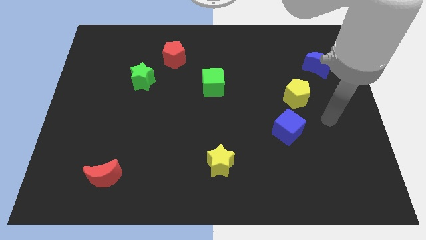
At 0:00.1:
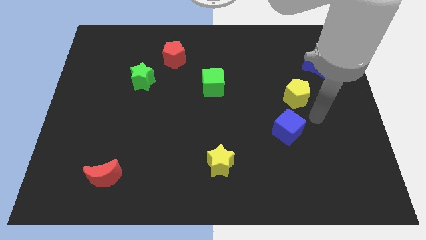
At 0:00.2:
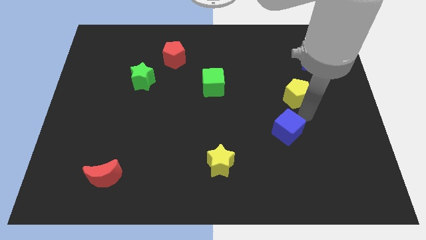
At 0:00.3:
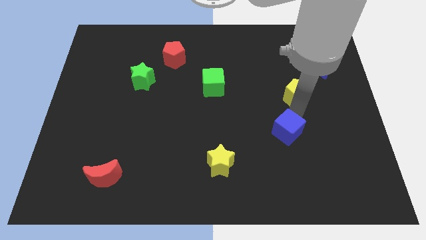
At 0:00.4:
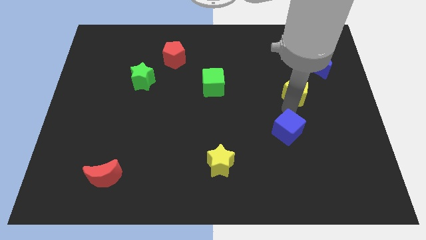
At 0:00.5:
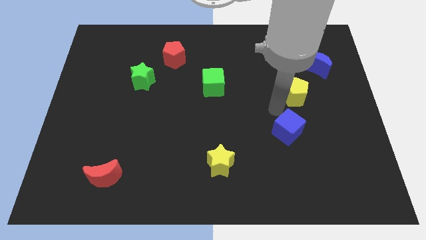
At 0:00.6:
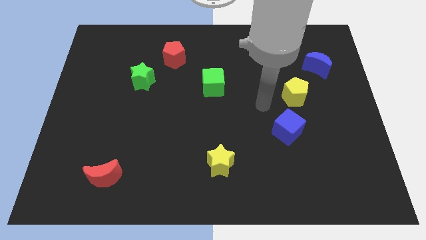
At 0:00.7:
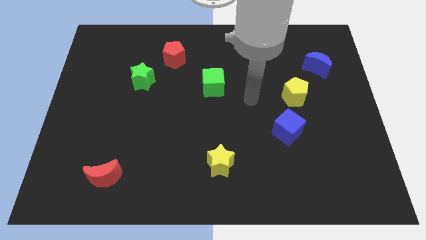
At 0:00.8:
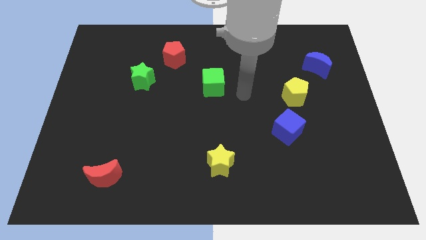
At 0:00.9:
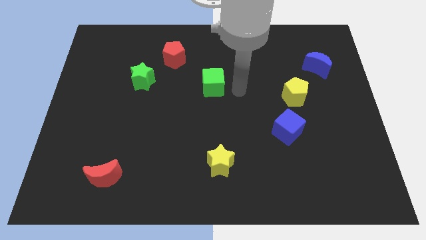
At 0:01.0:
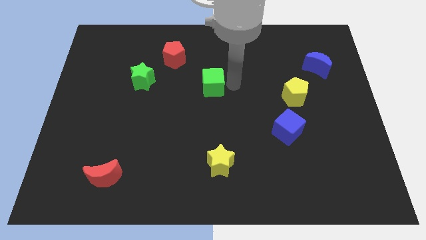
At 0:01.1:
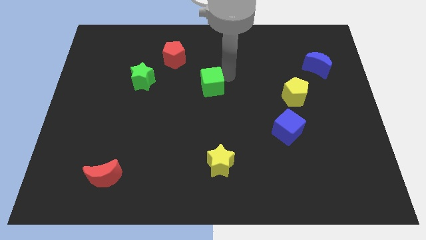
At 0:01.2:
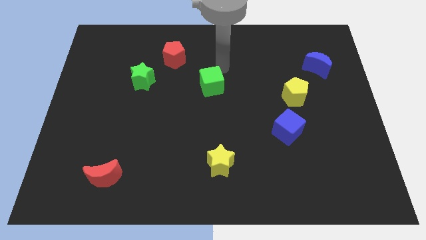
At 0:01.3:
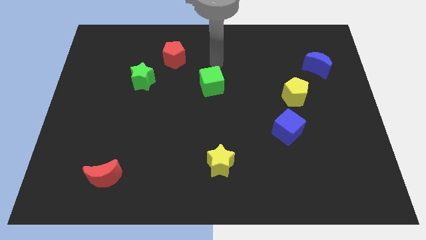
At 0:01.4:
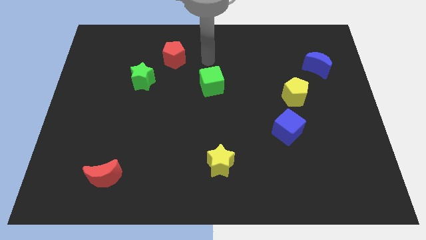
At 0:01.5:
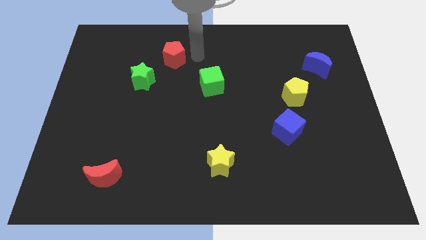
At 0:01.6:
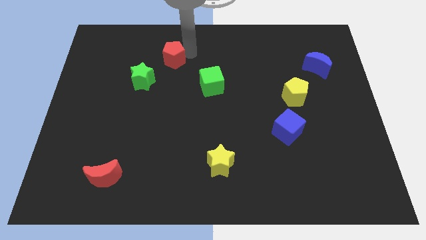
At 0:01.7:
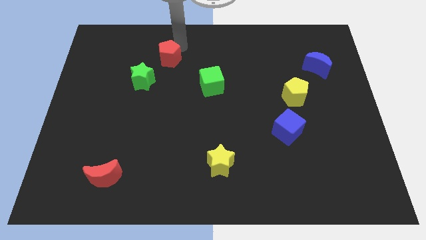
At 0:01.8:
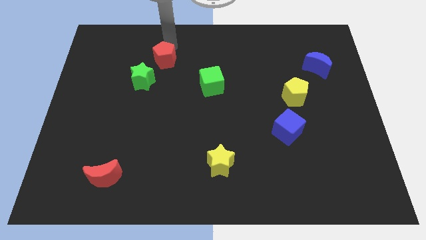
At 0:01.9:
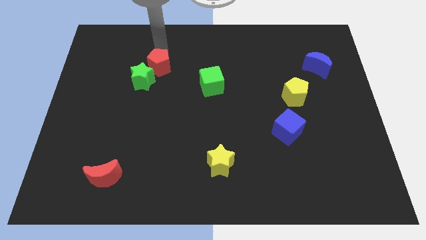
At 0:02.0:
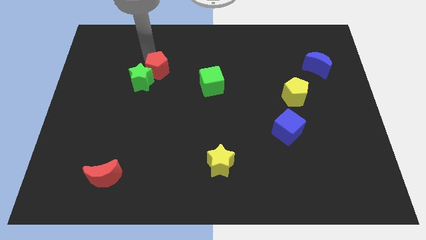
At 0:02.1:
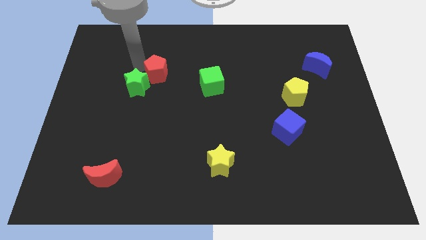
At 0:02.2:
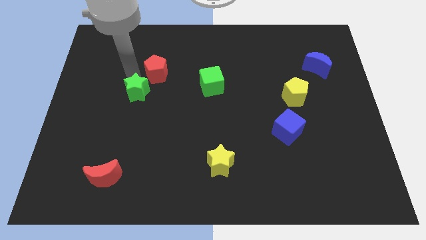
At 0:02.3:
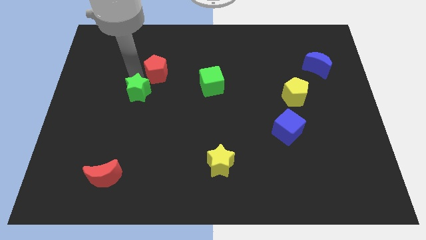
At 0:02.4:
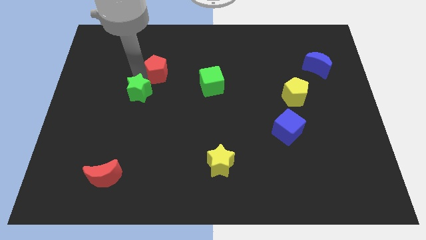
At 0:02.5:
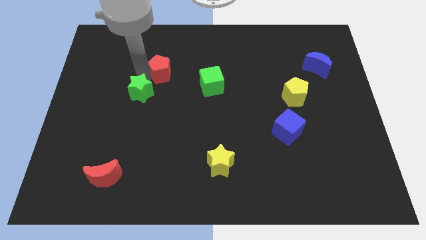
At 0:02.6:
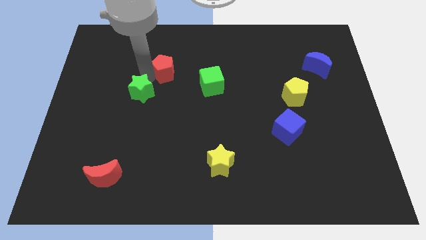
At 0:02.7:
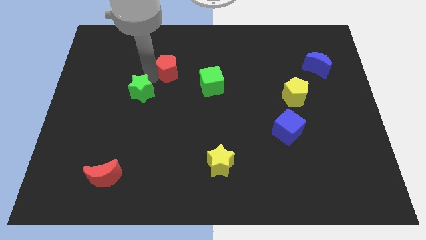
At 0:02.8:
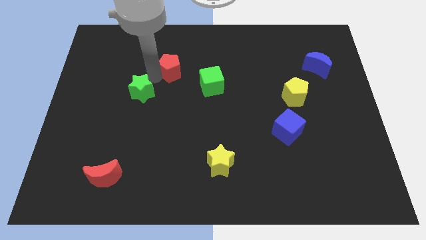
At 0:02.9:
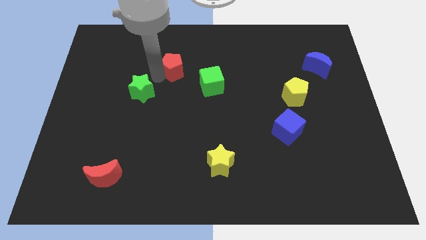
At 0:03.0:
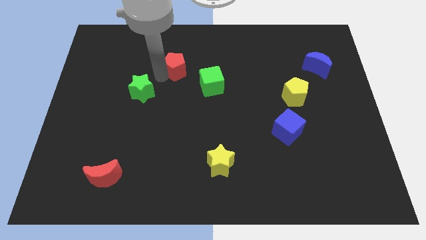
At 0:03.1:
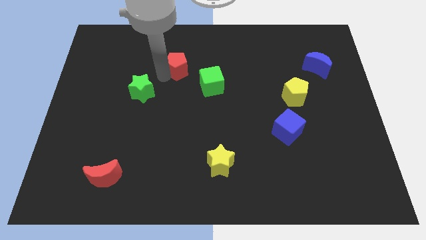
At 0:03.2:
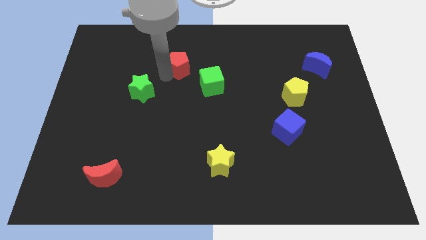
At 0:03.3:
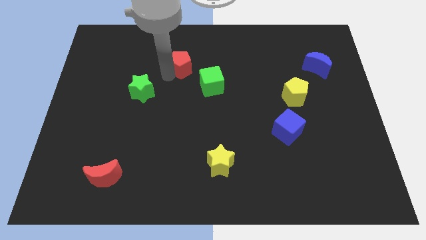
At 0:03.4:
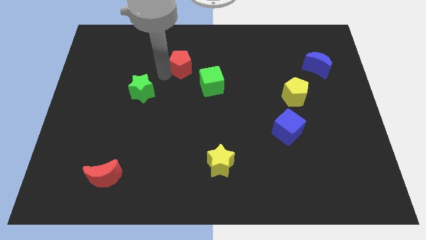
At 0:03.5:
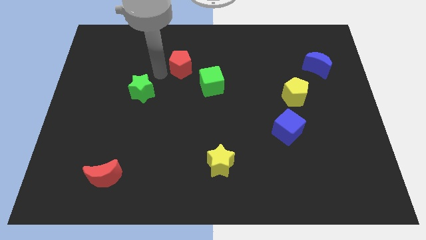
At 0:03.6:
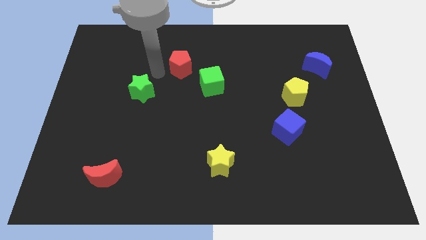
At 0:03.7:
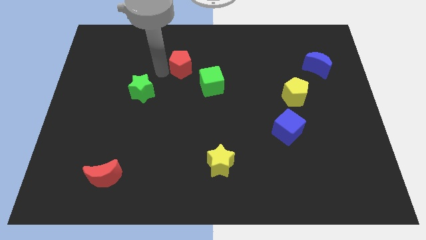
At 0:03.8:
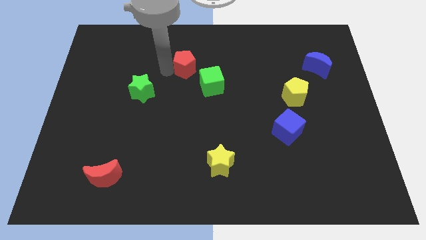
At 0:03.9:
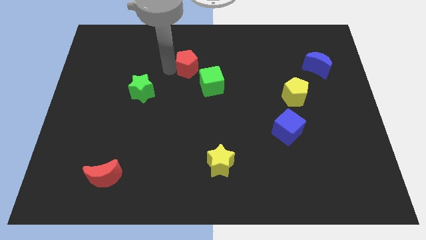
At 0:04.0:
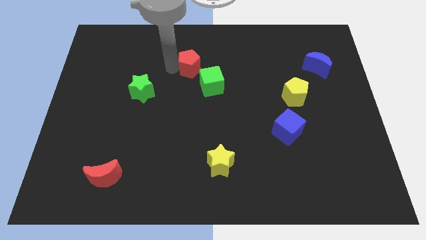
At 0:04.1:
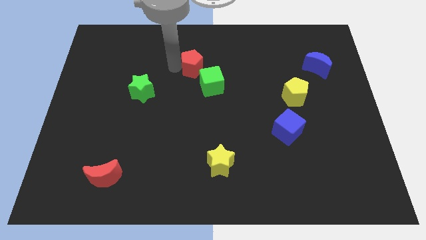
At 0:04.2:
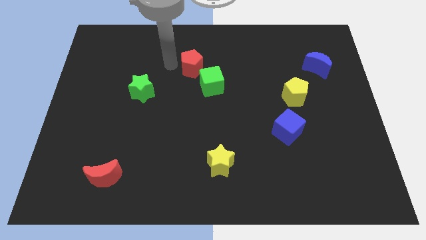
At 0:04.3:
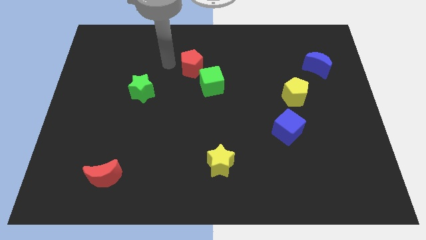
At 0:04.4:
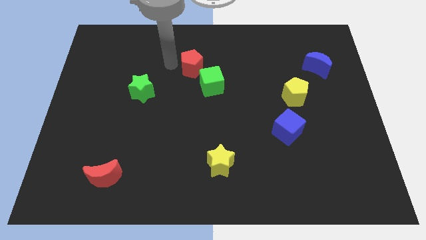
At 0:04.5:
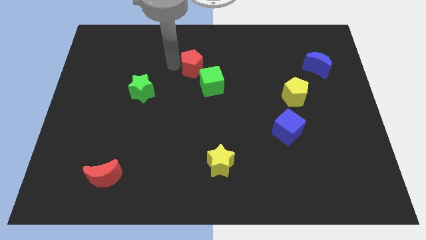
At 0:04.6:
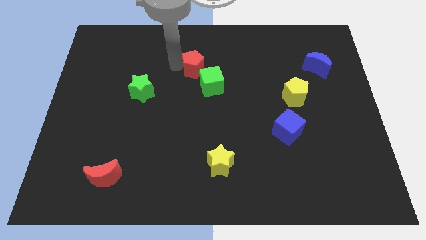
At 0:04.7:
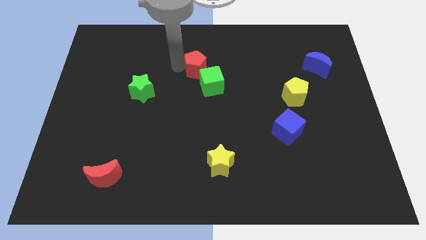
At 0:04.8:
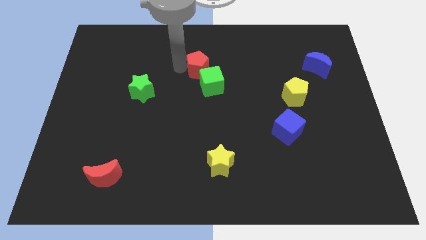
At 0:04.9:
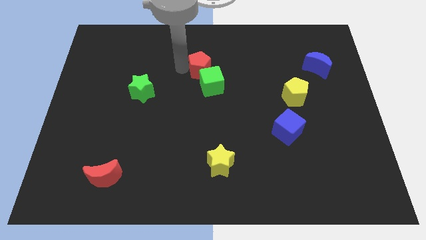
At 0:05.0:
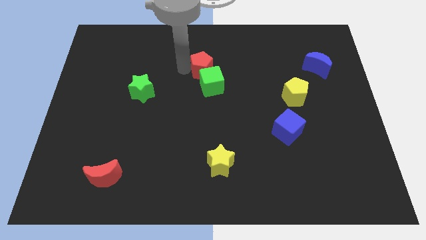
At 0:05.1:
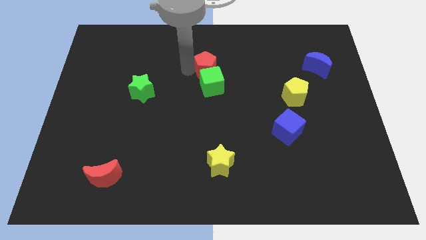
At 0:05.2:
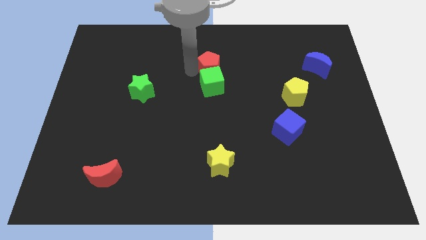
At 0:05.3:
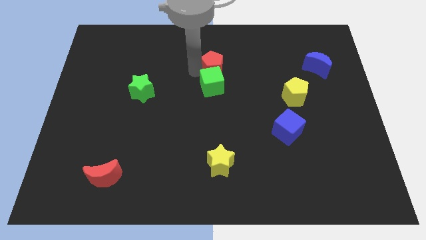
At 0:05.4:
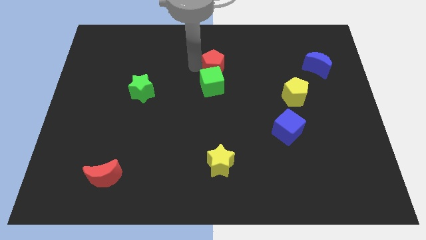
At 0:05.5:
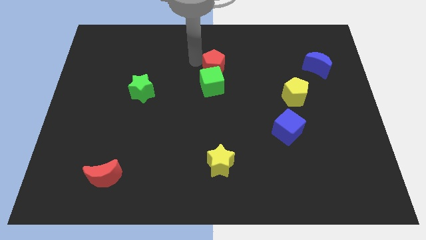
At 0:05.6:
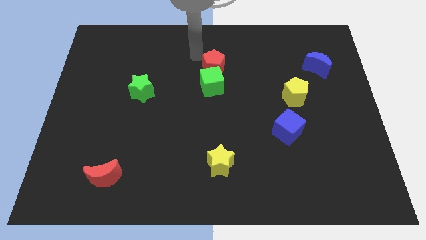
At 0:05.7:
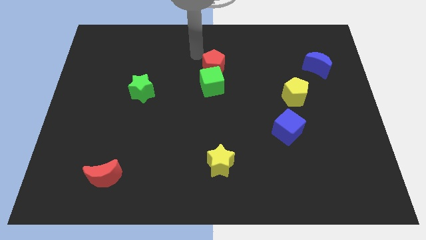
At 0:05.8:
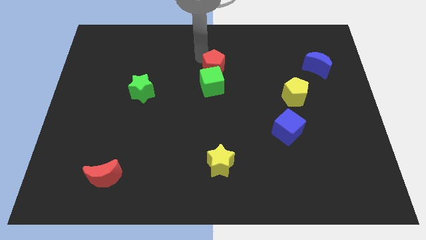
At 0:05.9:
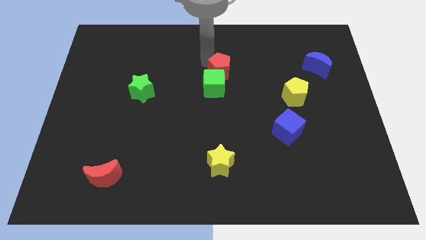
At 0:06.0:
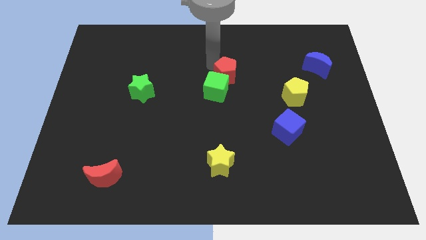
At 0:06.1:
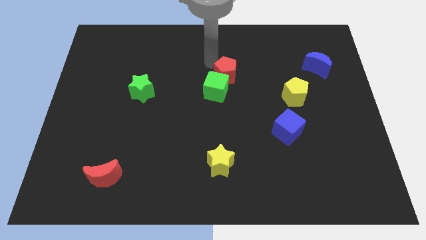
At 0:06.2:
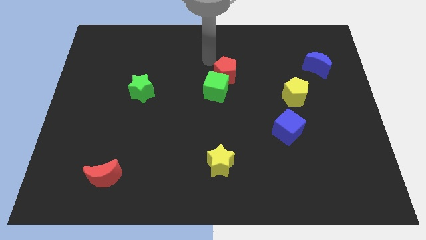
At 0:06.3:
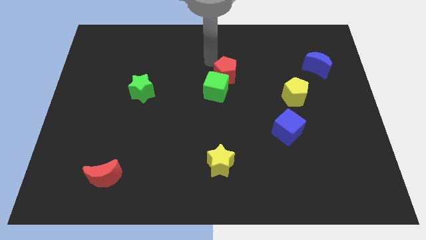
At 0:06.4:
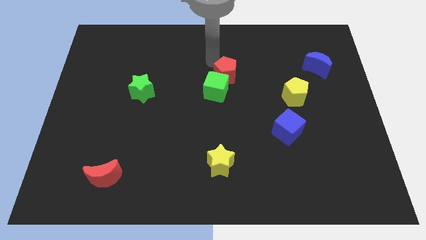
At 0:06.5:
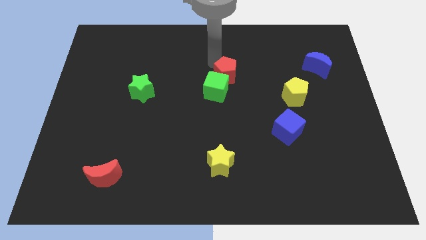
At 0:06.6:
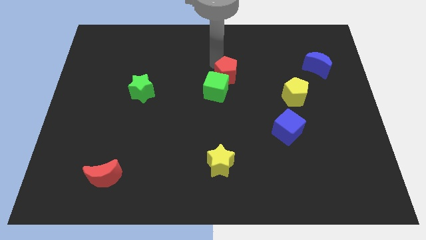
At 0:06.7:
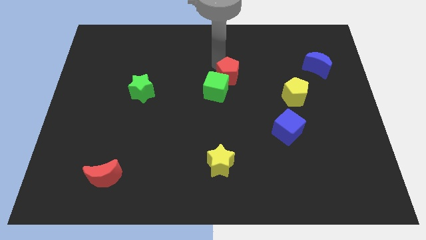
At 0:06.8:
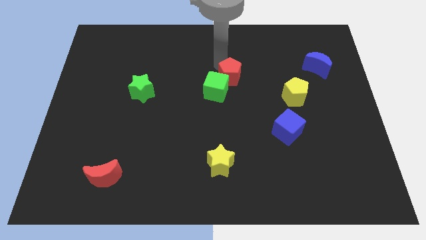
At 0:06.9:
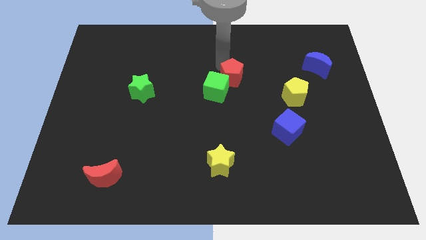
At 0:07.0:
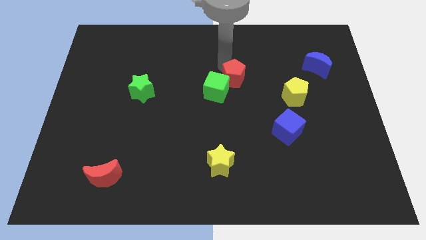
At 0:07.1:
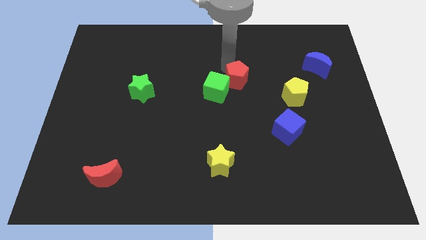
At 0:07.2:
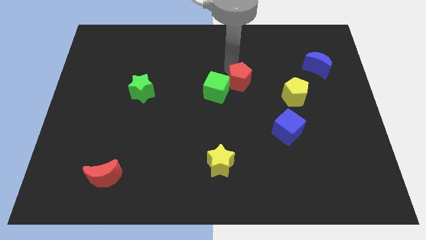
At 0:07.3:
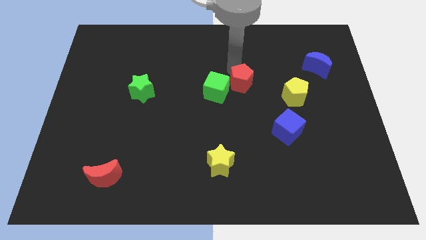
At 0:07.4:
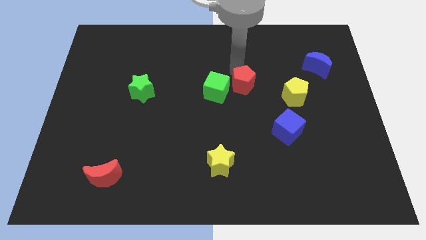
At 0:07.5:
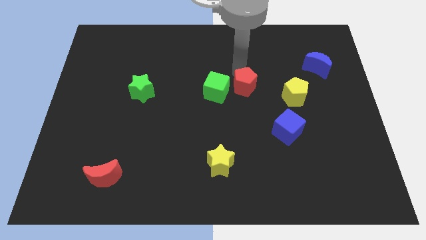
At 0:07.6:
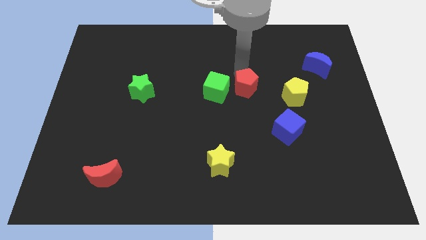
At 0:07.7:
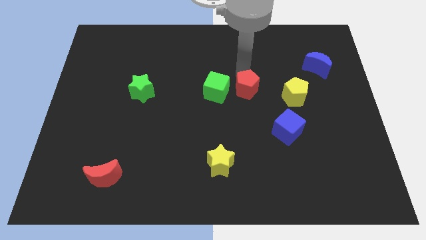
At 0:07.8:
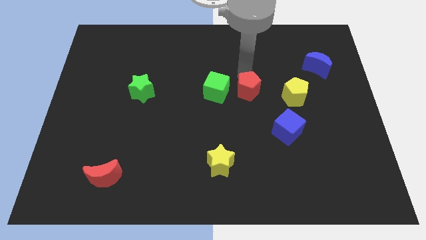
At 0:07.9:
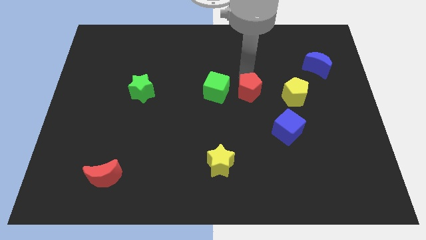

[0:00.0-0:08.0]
push the red pentagon down and then to the right
